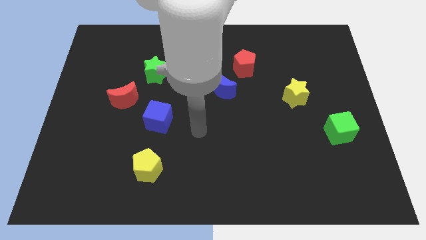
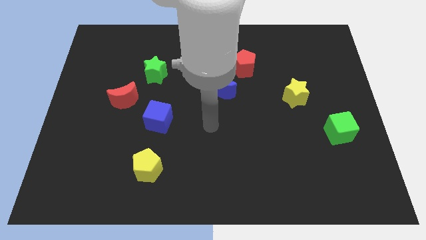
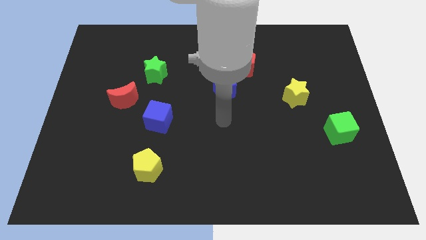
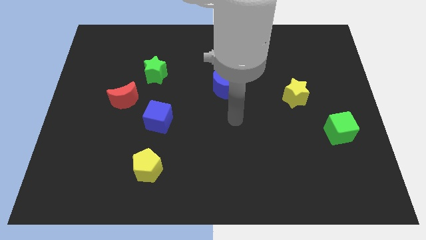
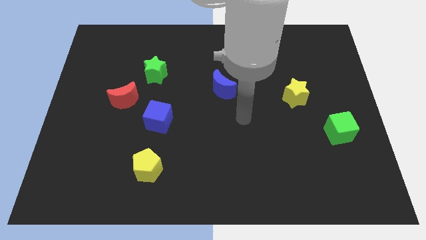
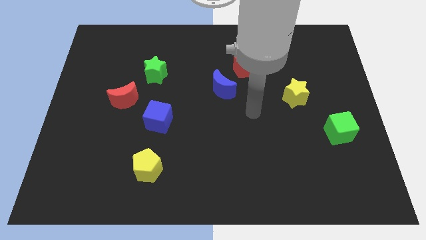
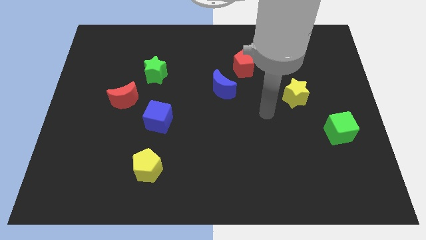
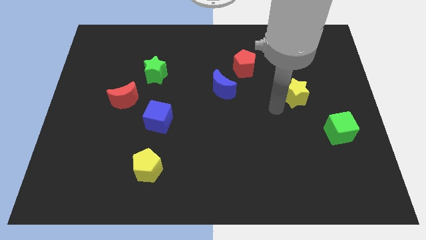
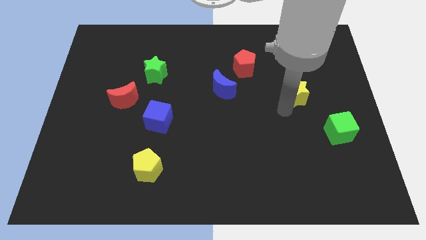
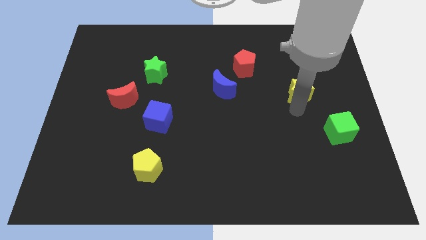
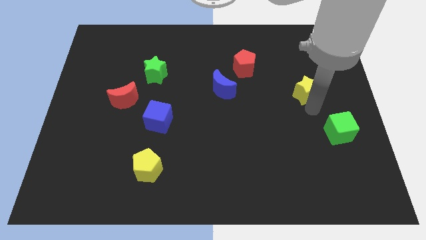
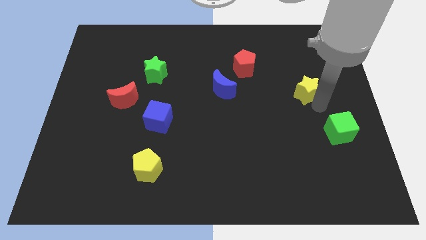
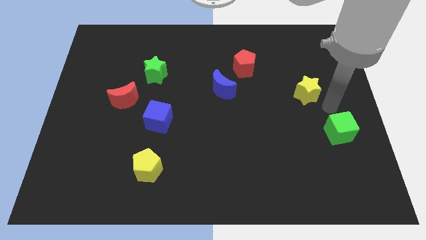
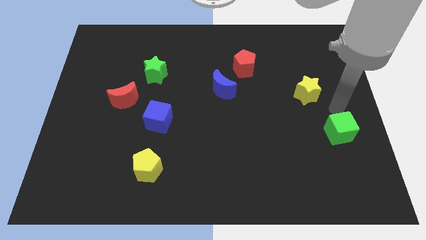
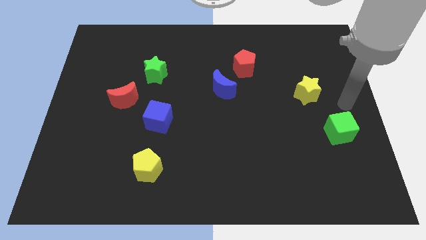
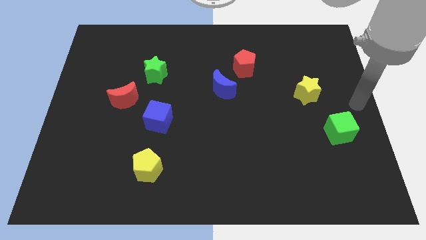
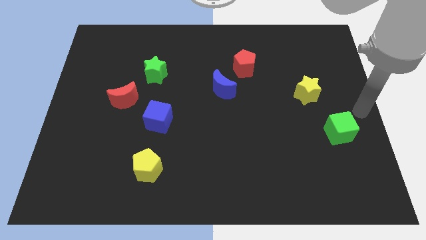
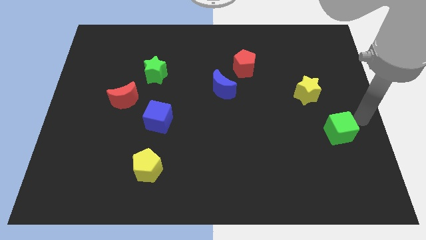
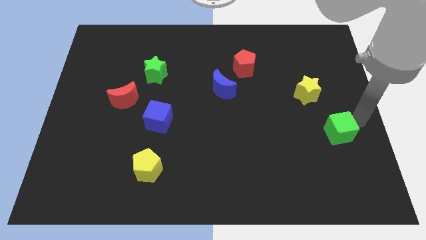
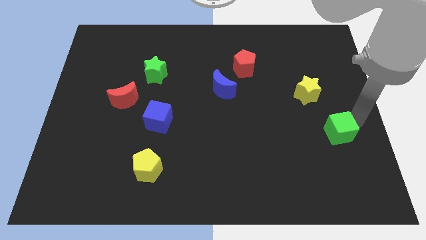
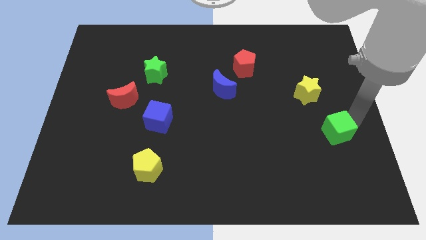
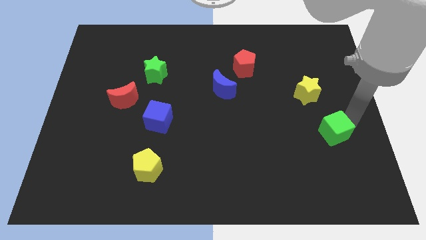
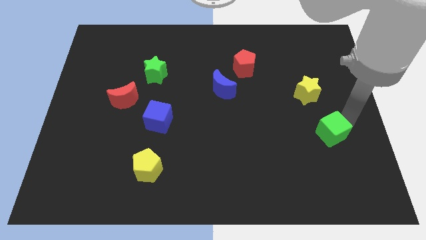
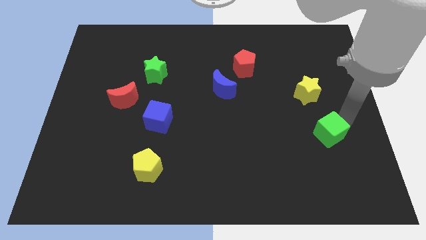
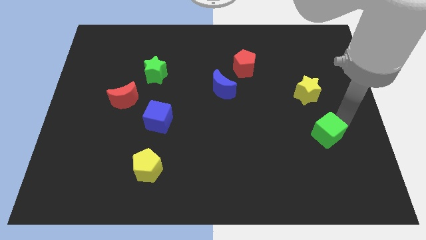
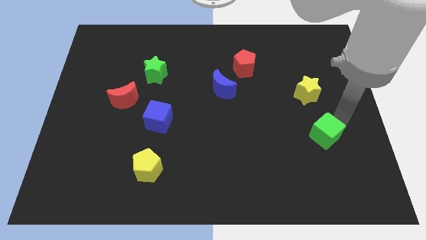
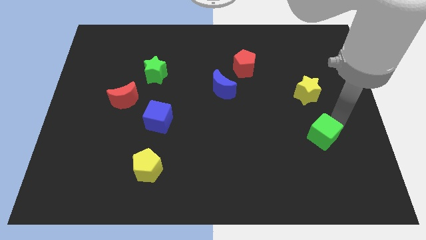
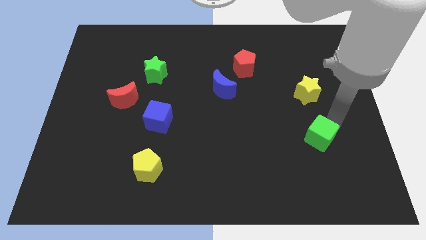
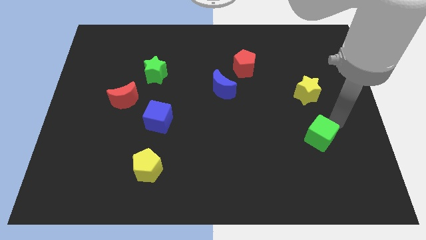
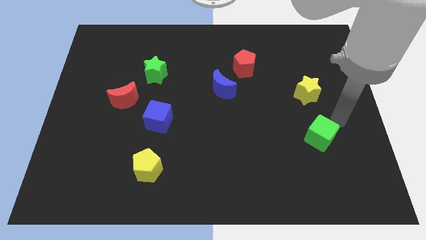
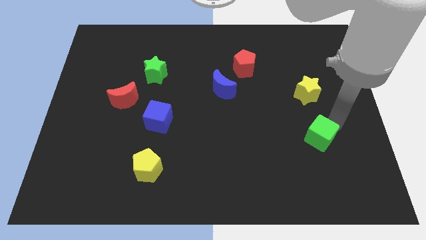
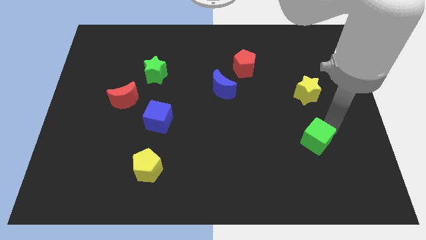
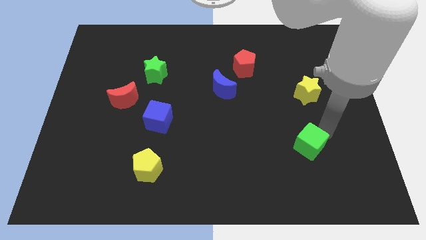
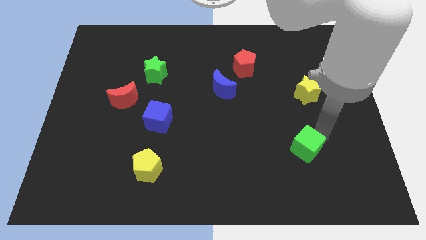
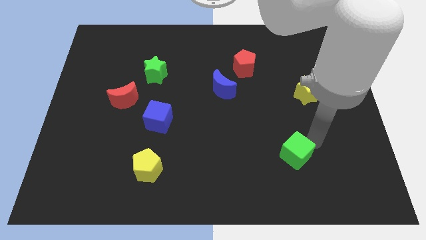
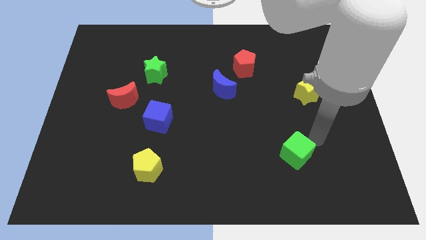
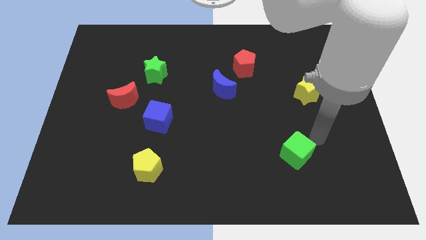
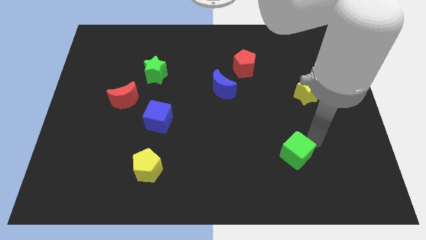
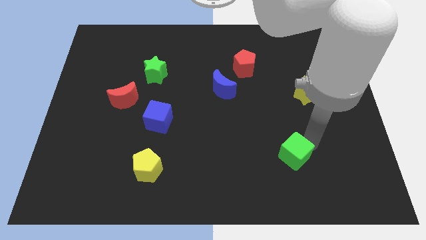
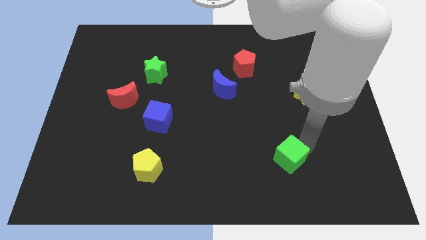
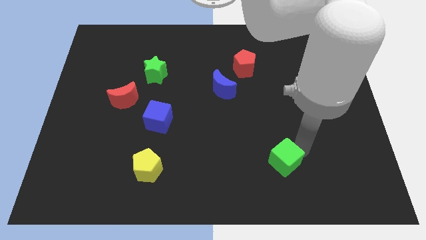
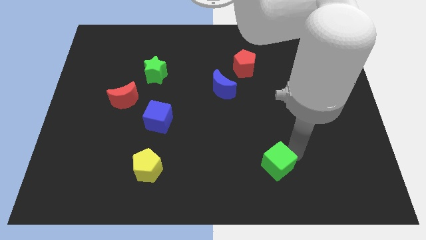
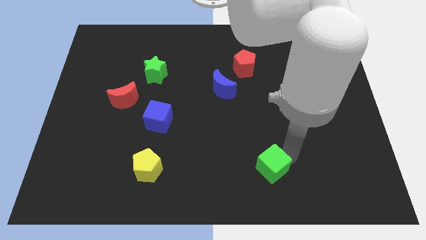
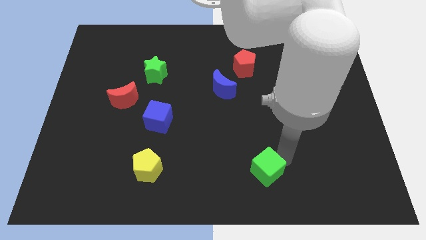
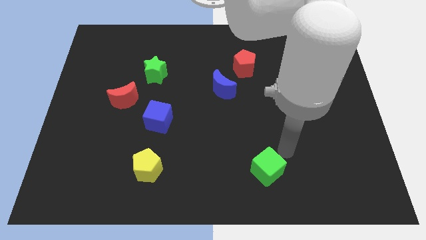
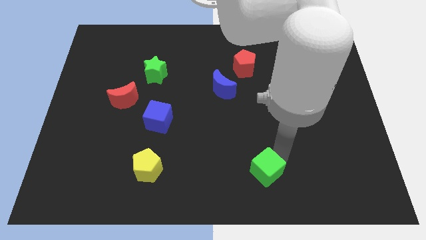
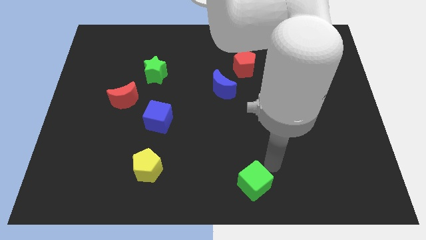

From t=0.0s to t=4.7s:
push the green cube to the bottom

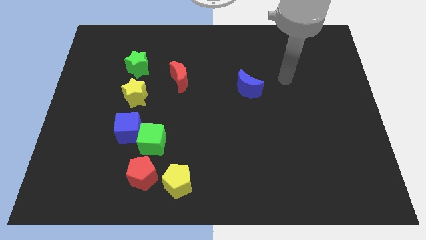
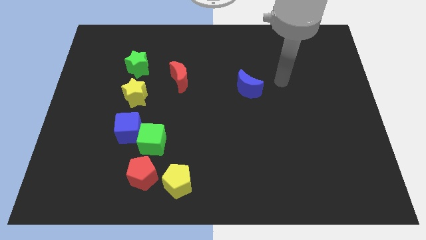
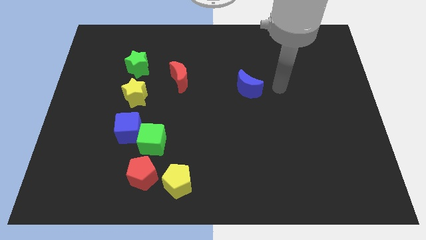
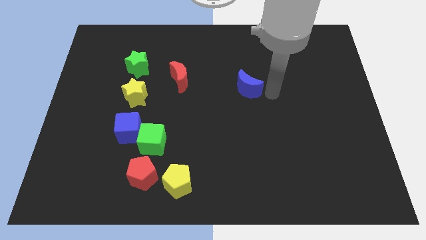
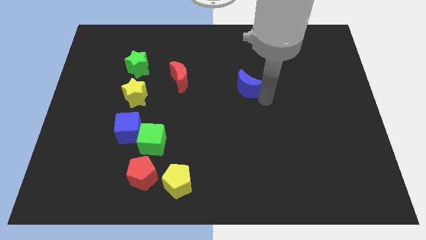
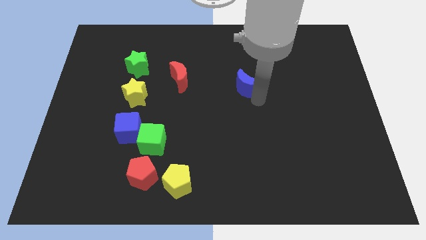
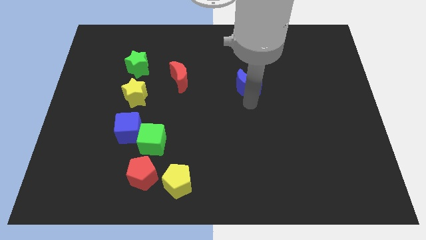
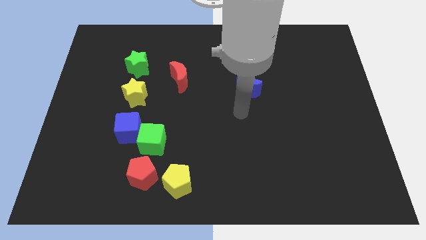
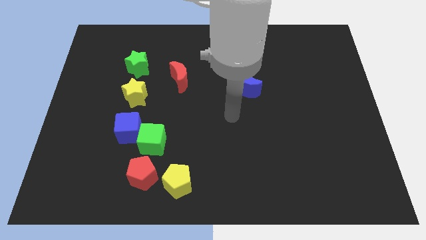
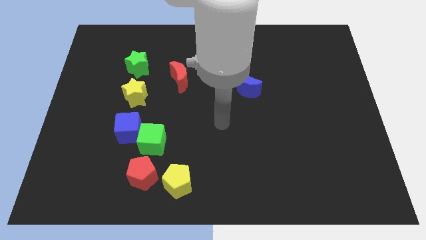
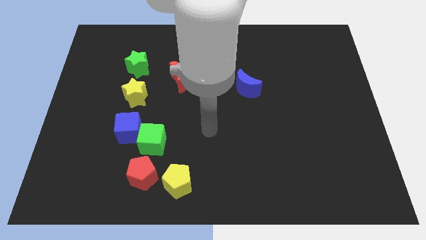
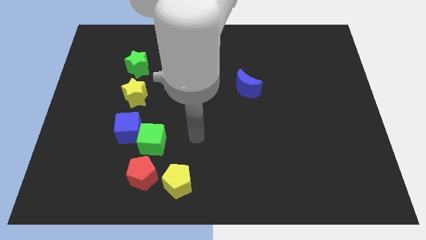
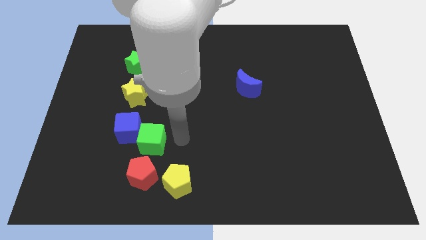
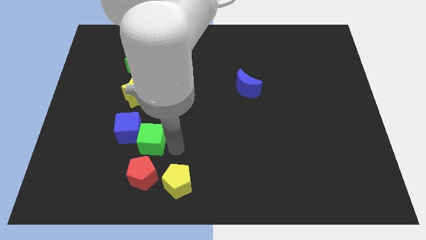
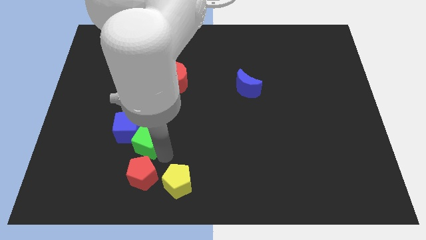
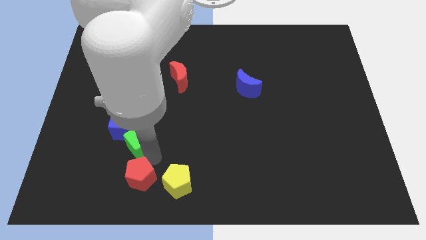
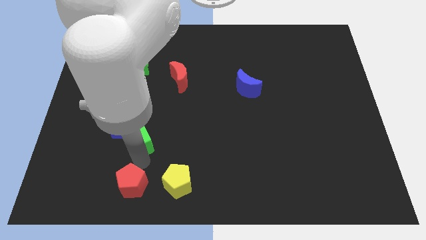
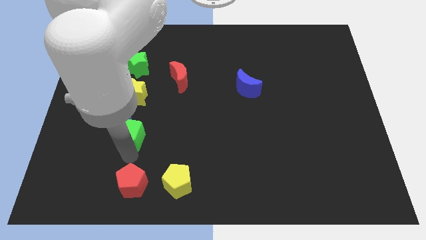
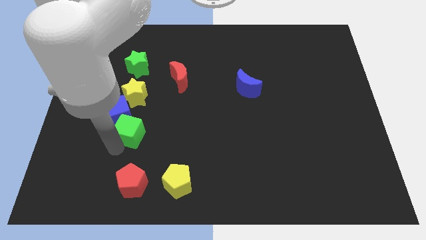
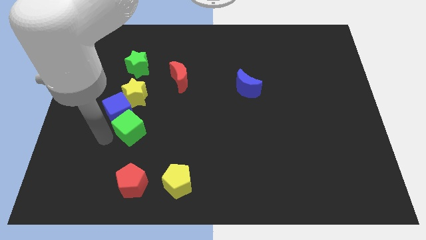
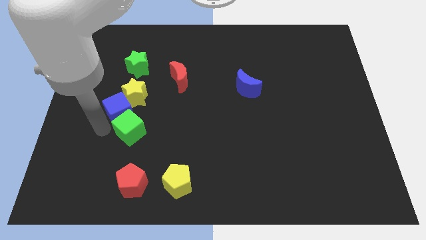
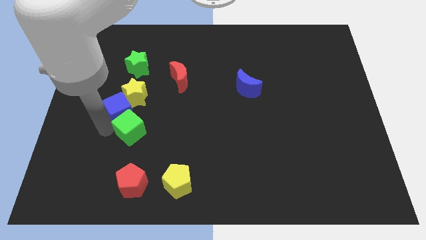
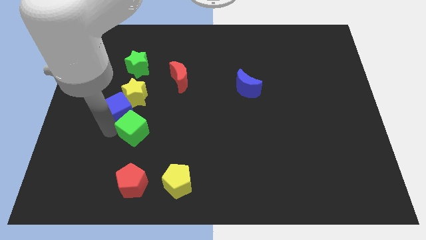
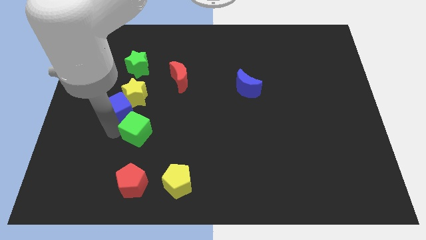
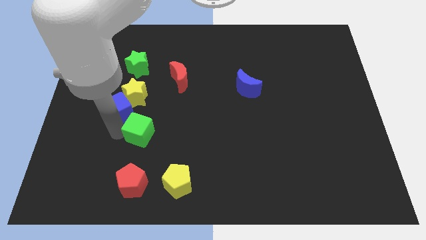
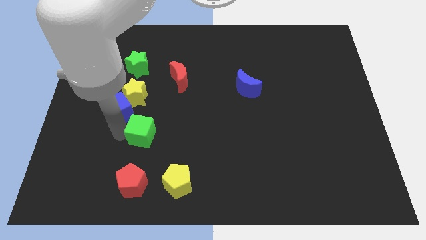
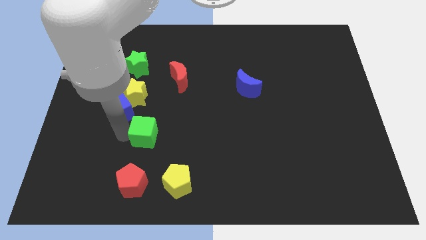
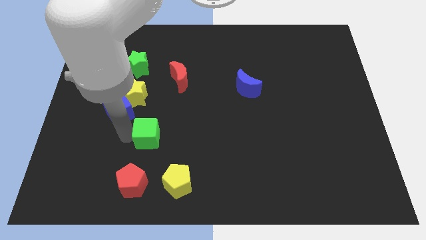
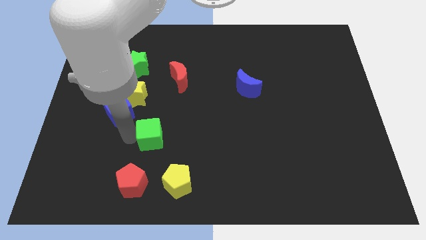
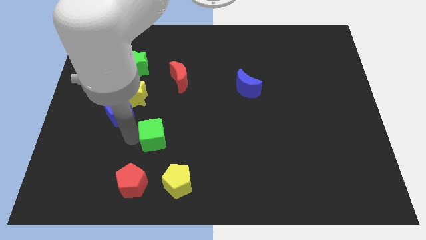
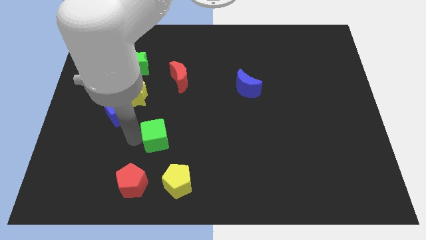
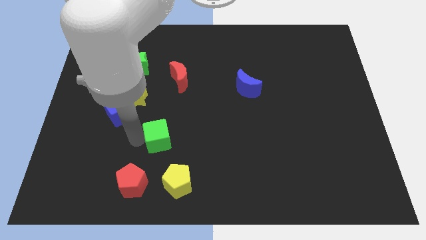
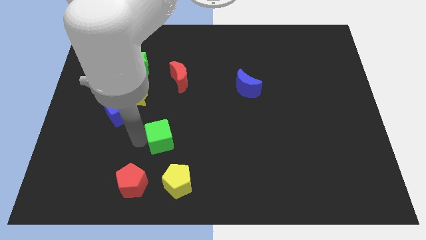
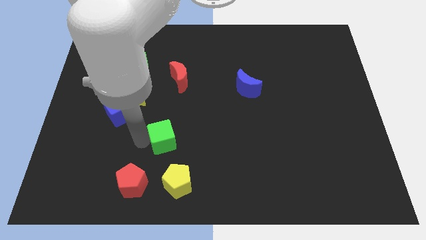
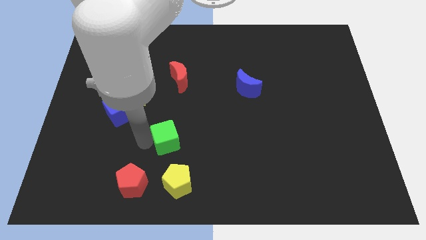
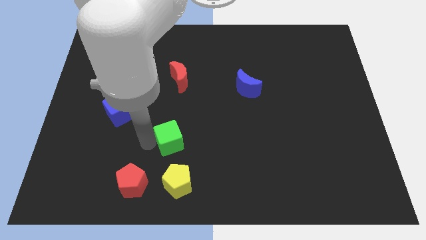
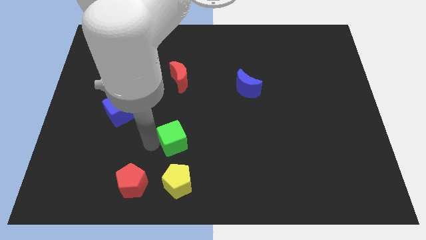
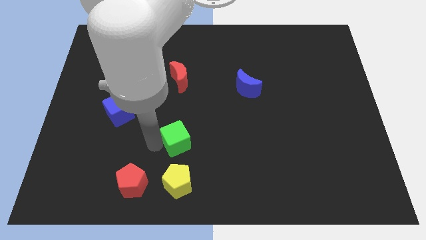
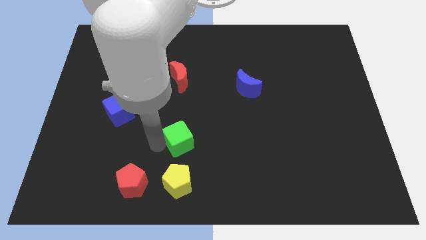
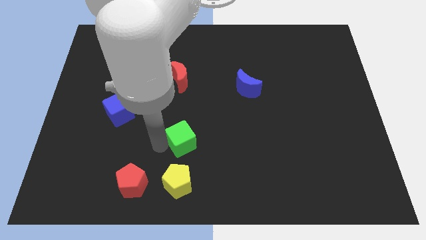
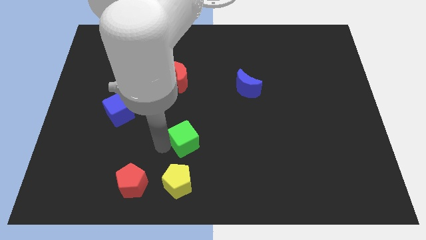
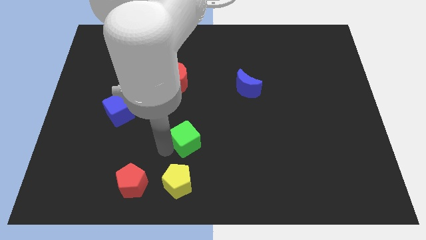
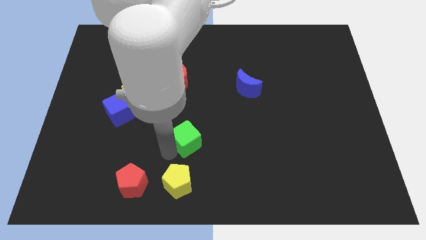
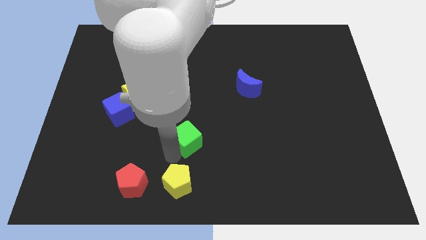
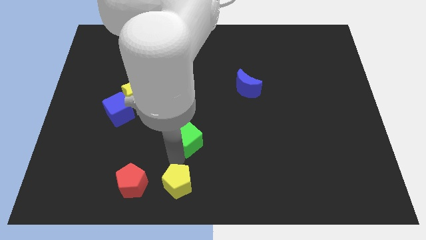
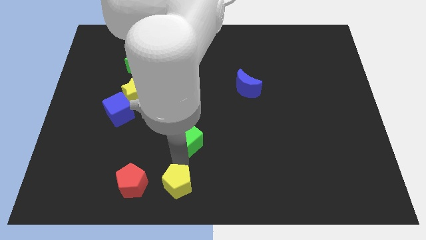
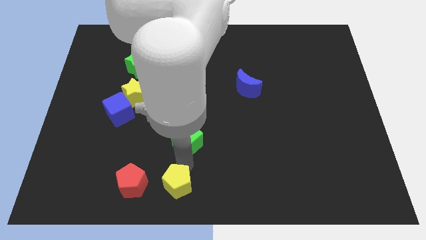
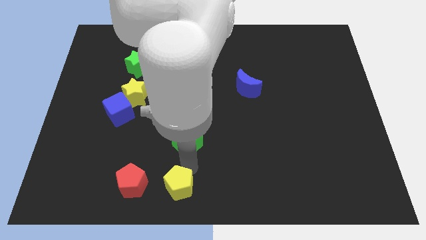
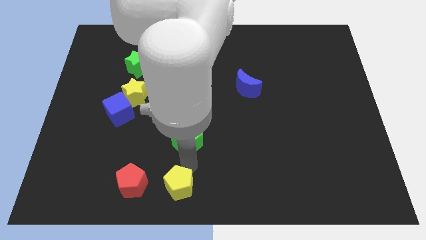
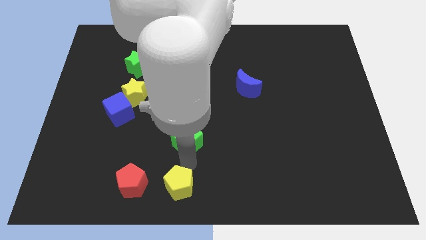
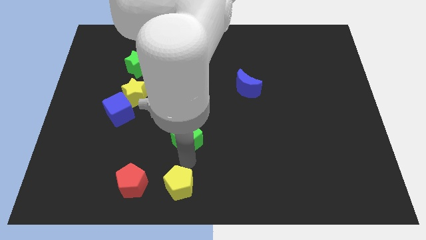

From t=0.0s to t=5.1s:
slide the green cube to the center of the board
